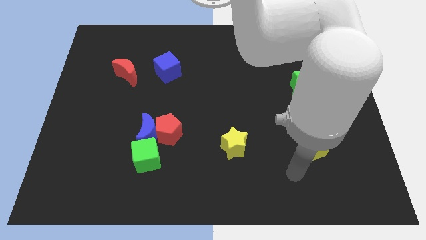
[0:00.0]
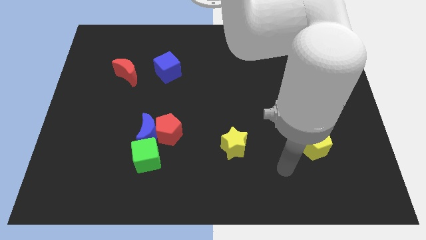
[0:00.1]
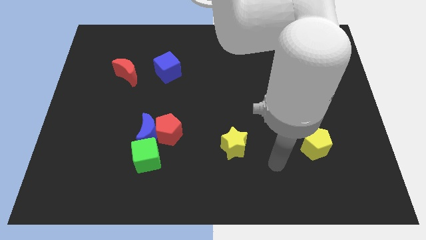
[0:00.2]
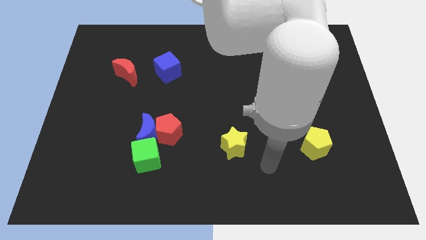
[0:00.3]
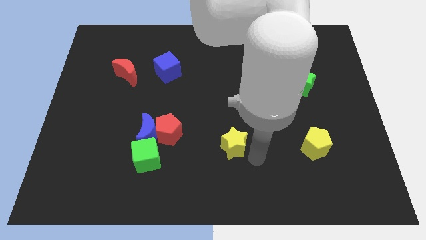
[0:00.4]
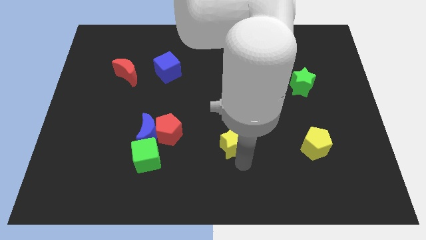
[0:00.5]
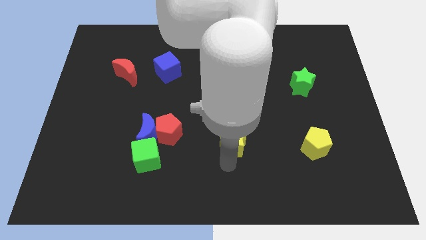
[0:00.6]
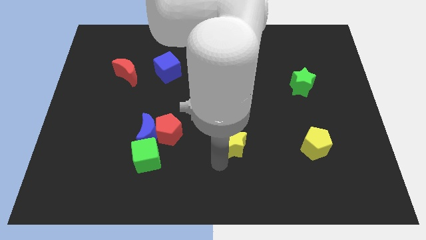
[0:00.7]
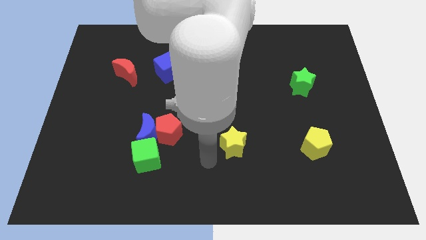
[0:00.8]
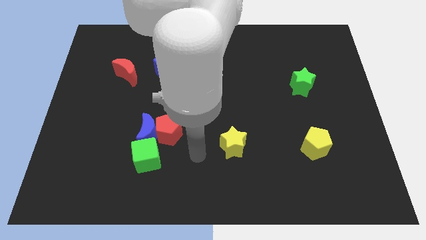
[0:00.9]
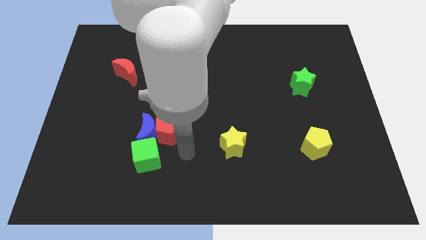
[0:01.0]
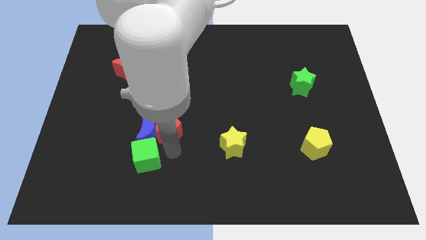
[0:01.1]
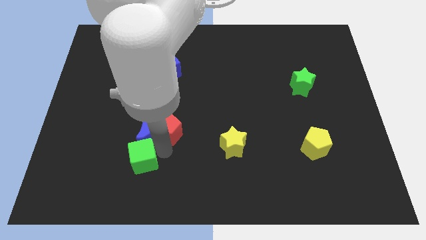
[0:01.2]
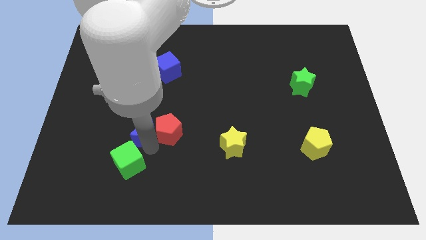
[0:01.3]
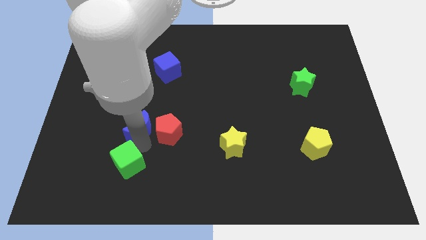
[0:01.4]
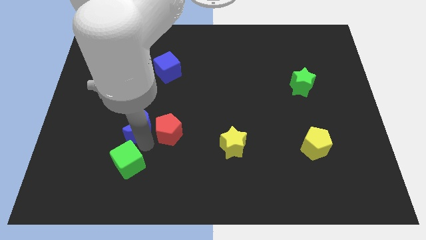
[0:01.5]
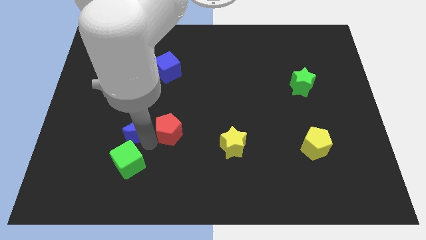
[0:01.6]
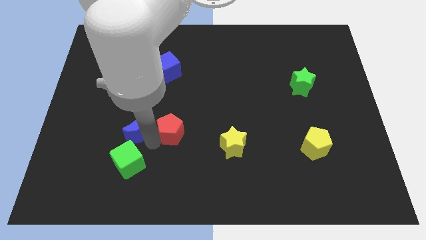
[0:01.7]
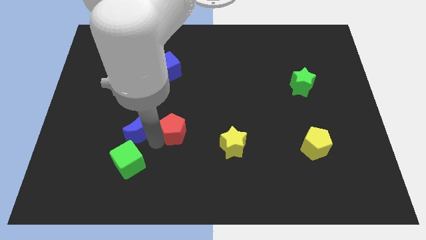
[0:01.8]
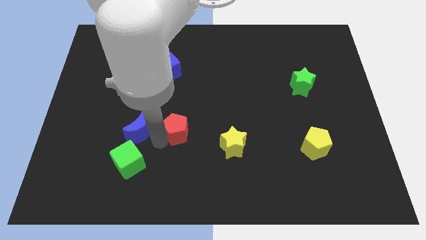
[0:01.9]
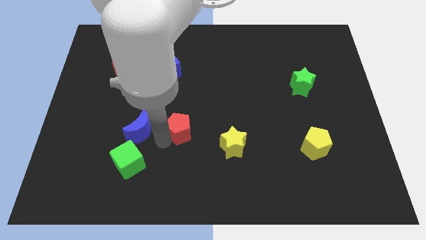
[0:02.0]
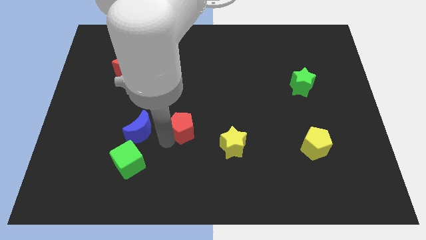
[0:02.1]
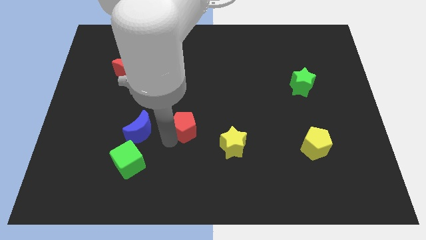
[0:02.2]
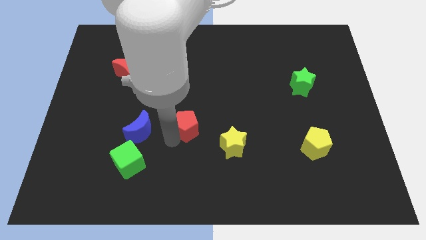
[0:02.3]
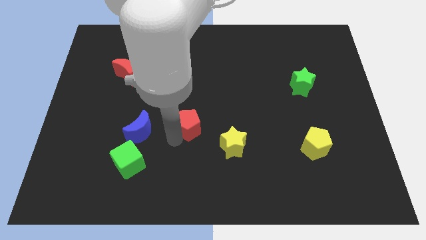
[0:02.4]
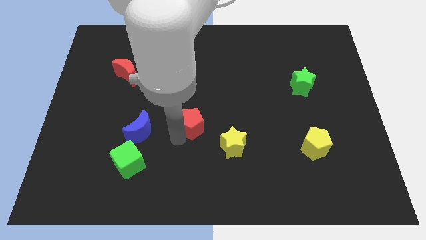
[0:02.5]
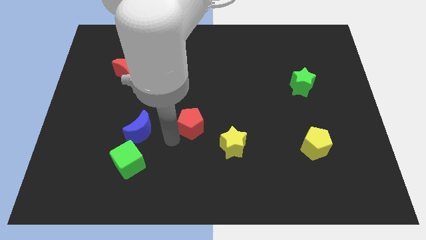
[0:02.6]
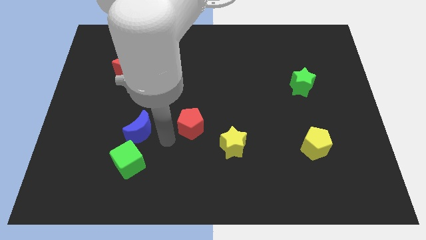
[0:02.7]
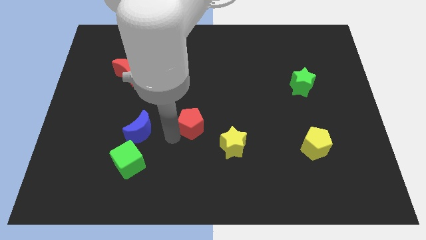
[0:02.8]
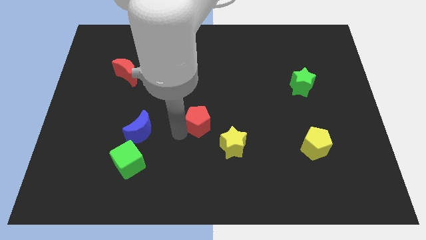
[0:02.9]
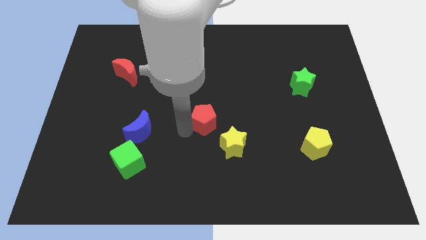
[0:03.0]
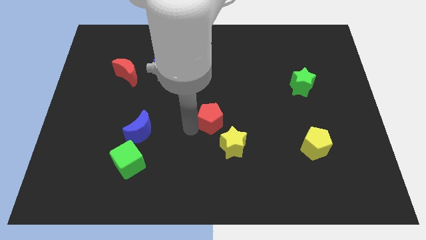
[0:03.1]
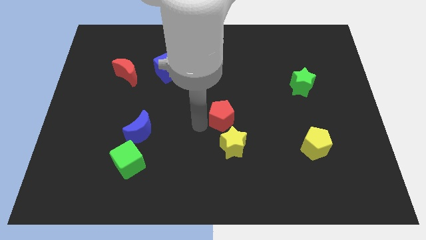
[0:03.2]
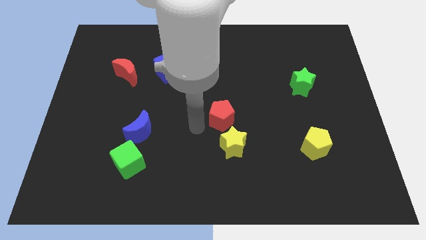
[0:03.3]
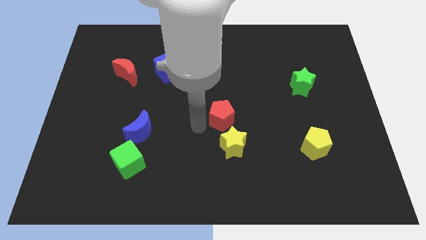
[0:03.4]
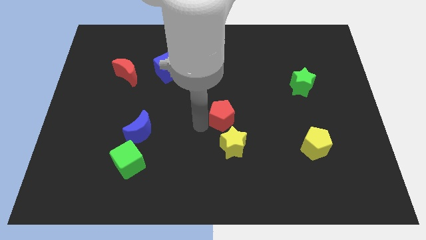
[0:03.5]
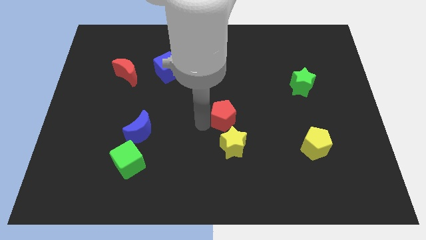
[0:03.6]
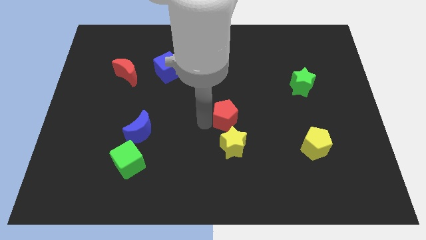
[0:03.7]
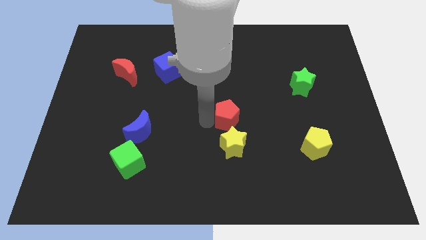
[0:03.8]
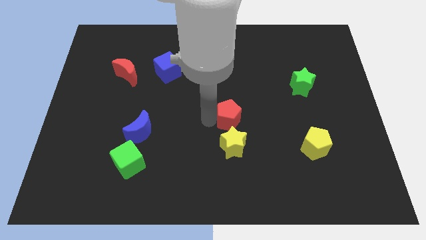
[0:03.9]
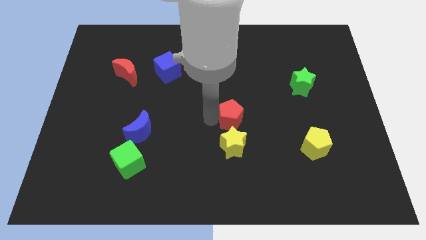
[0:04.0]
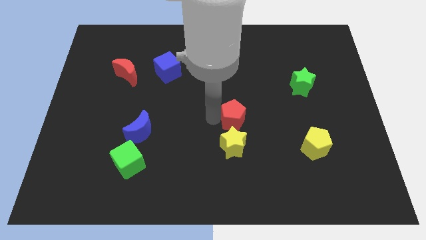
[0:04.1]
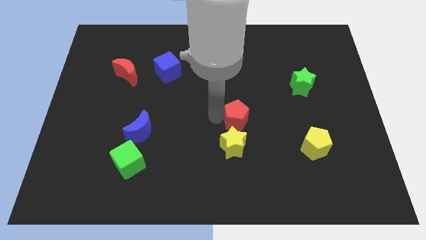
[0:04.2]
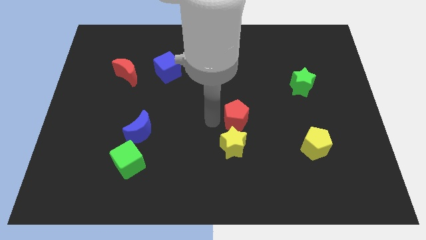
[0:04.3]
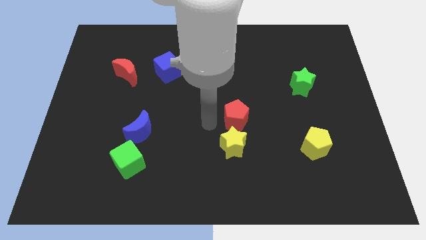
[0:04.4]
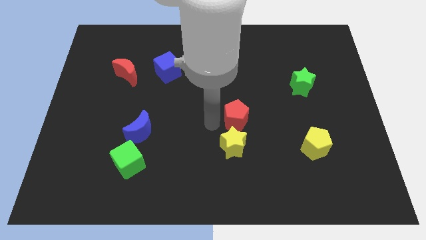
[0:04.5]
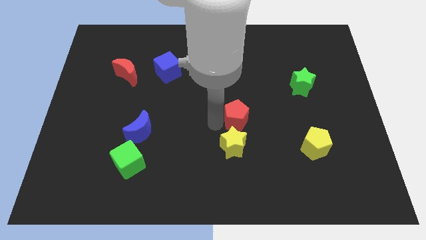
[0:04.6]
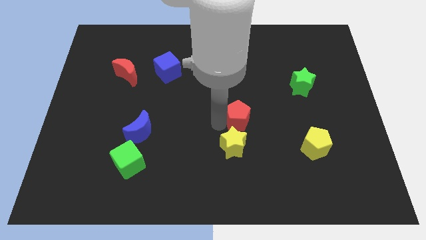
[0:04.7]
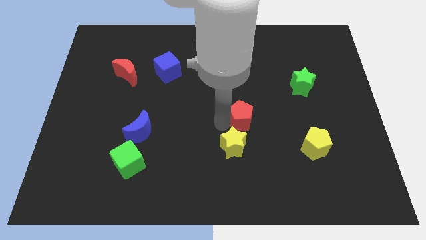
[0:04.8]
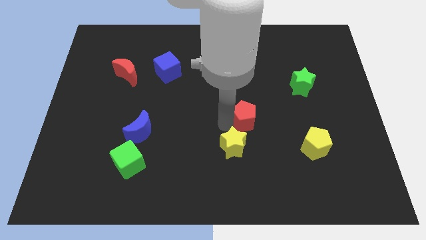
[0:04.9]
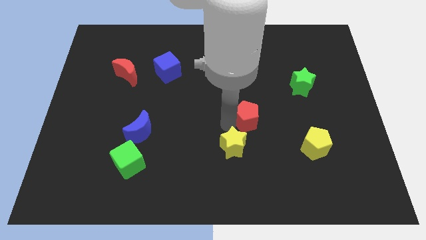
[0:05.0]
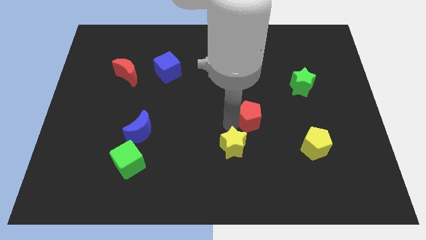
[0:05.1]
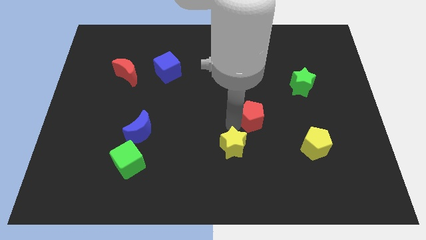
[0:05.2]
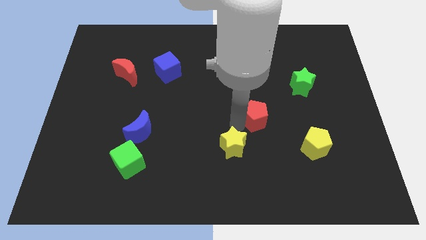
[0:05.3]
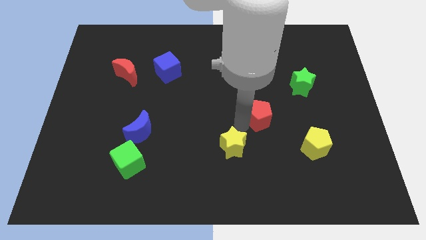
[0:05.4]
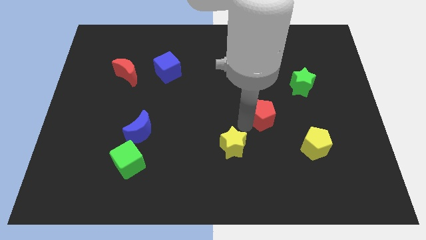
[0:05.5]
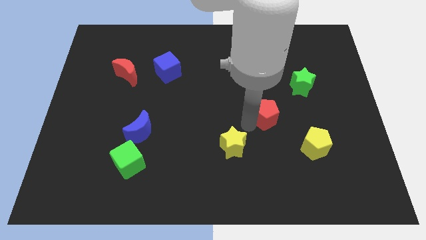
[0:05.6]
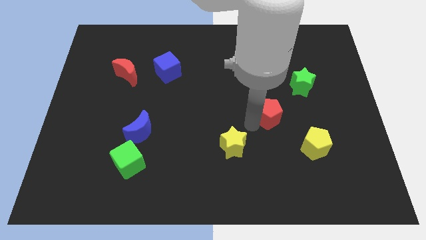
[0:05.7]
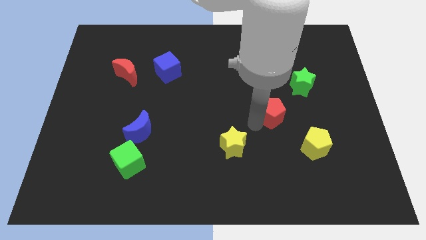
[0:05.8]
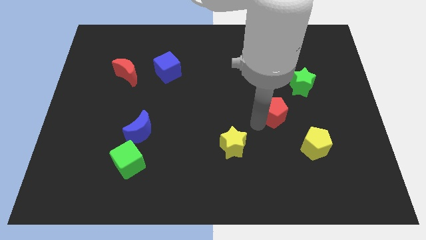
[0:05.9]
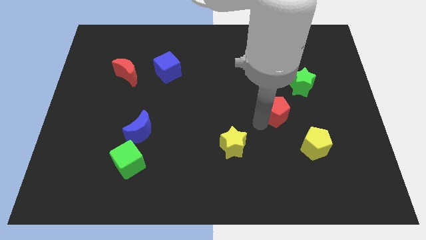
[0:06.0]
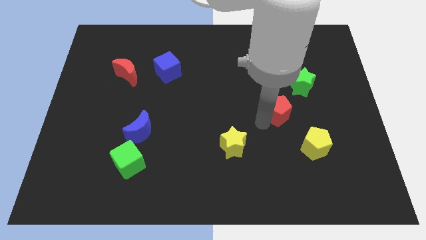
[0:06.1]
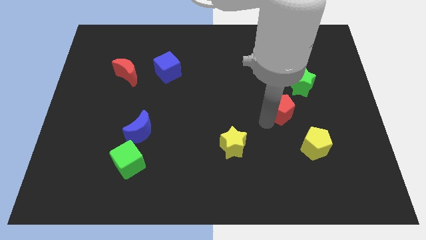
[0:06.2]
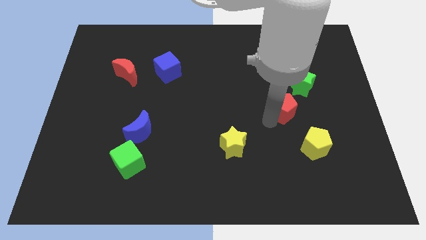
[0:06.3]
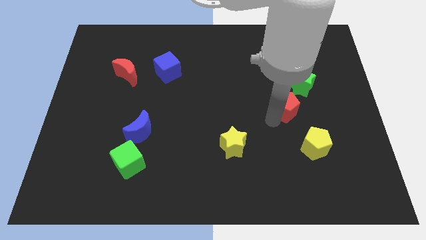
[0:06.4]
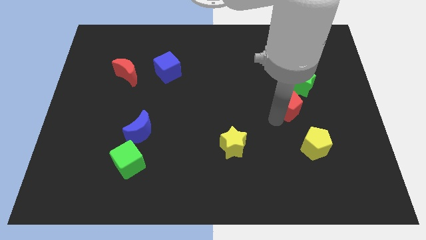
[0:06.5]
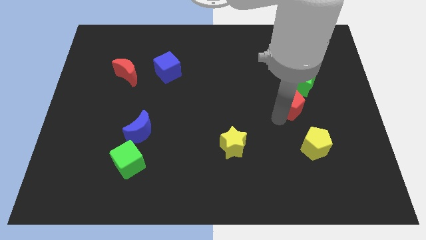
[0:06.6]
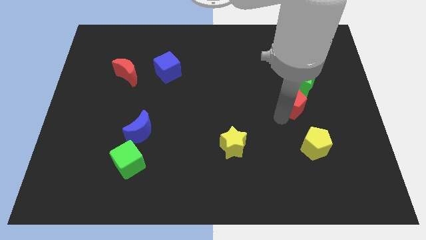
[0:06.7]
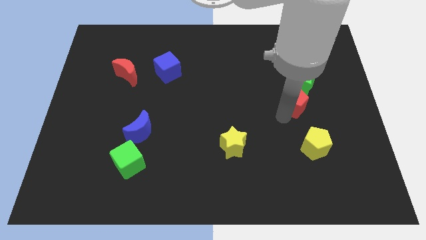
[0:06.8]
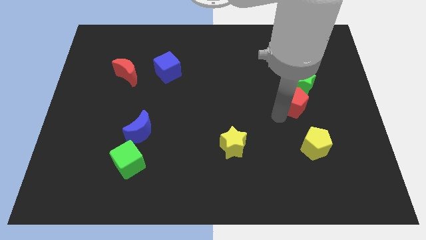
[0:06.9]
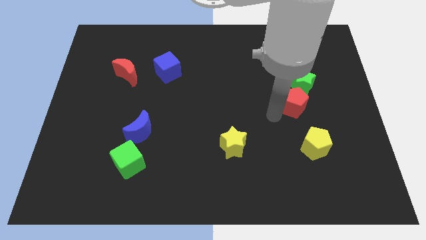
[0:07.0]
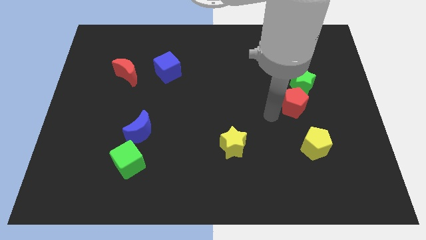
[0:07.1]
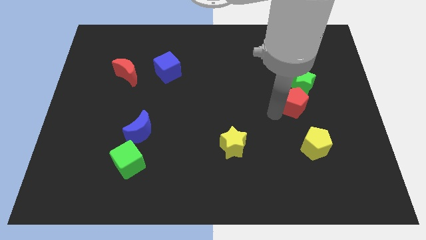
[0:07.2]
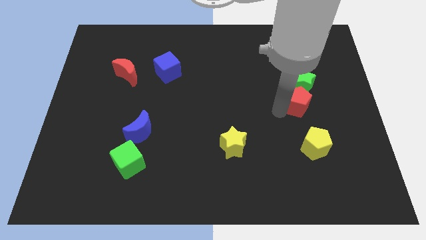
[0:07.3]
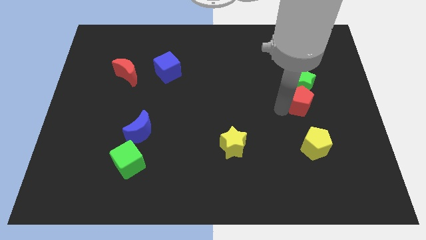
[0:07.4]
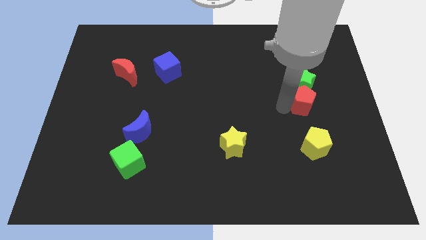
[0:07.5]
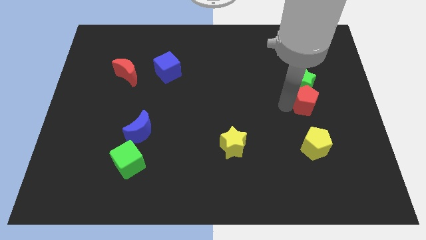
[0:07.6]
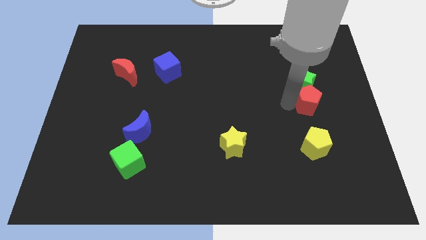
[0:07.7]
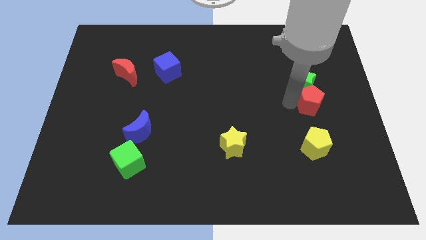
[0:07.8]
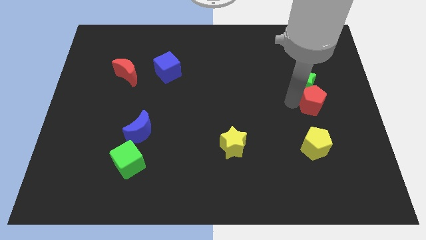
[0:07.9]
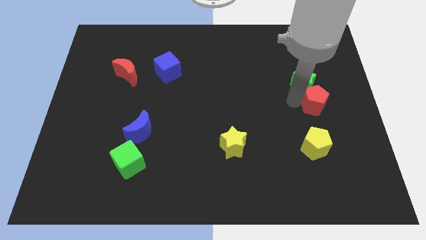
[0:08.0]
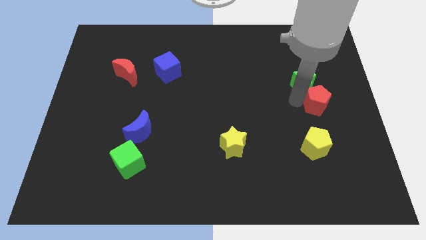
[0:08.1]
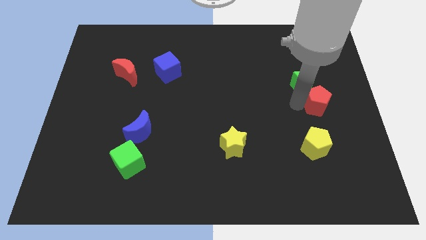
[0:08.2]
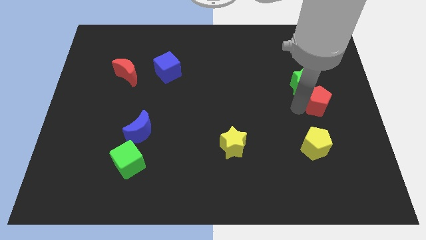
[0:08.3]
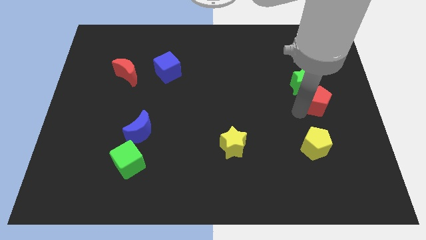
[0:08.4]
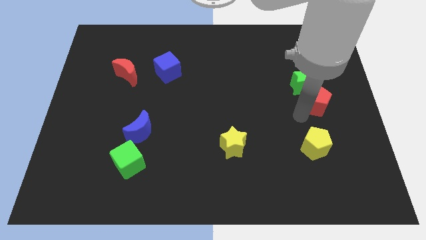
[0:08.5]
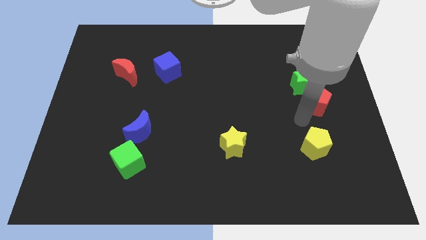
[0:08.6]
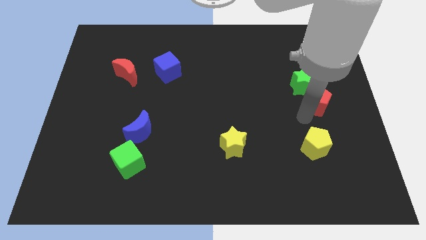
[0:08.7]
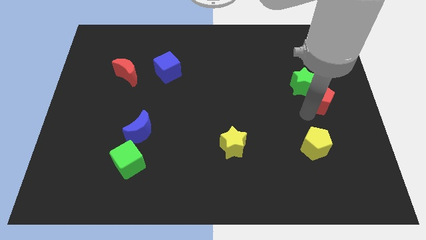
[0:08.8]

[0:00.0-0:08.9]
move the red pentagon to the right side
